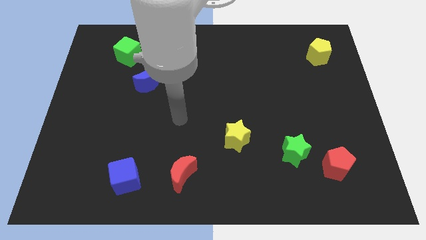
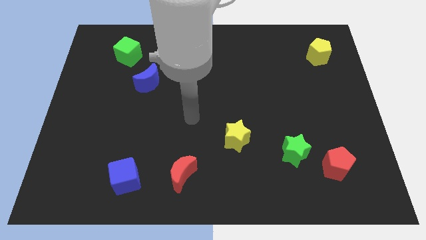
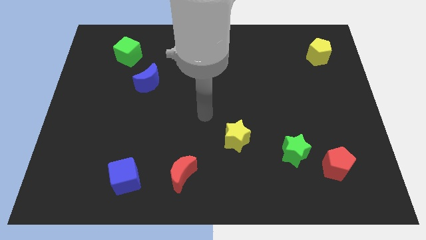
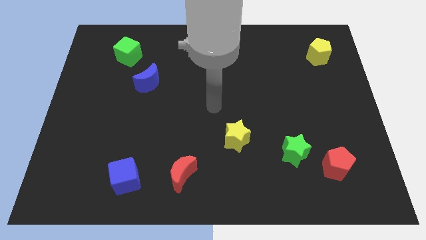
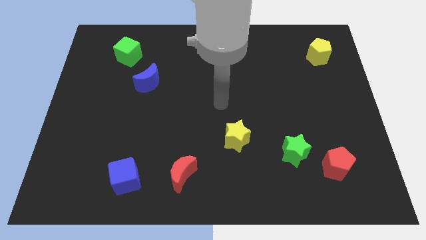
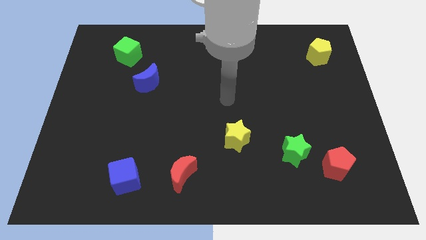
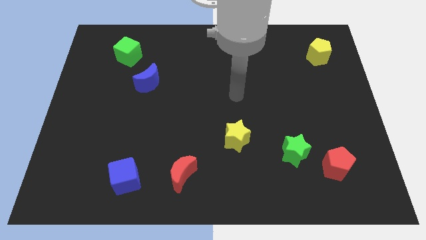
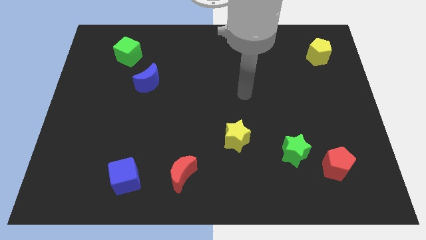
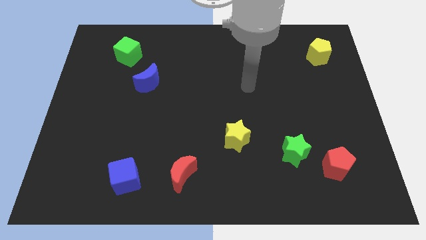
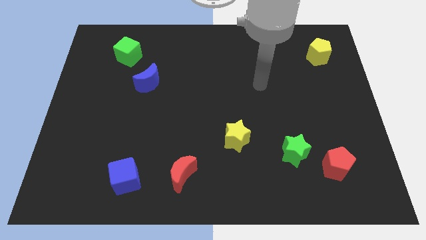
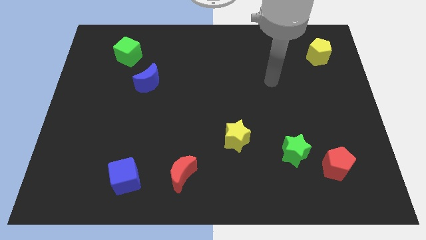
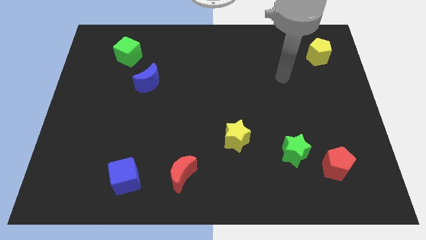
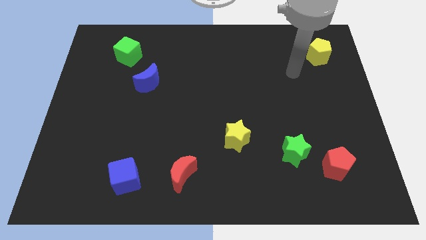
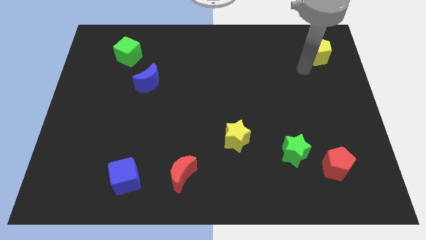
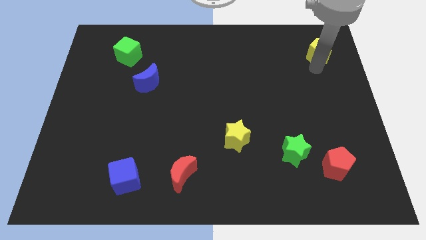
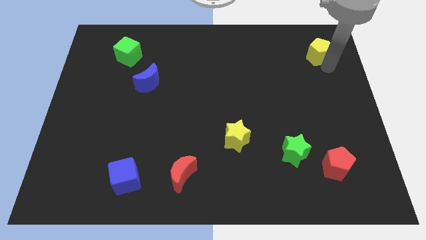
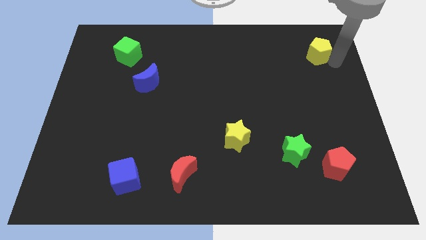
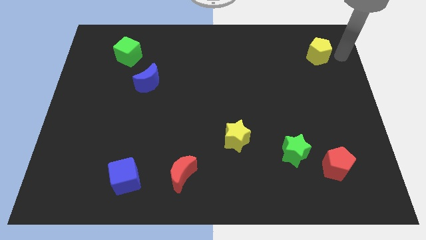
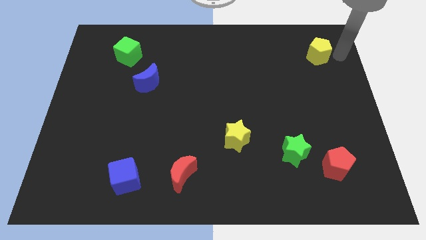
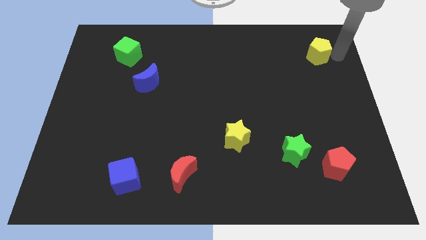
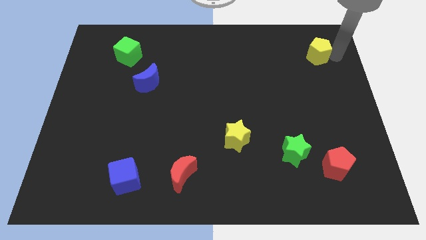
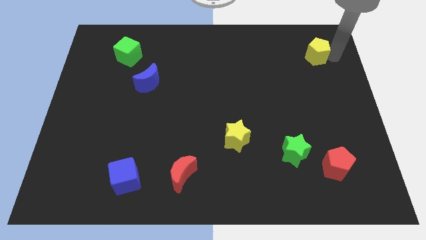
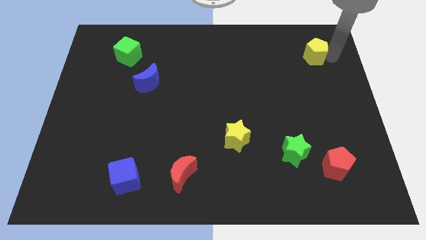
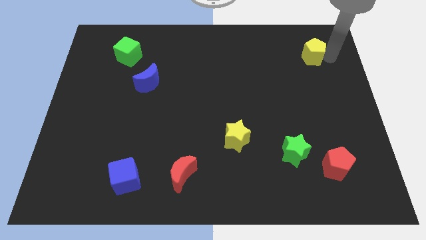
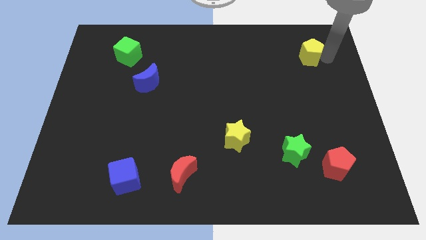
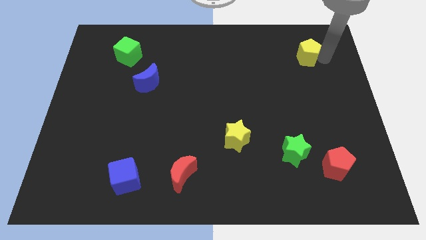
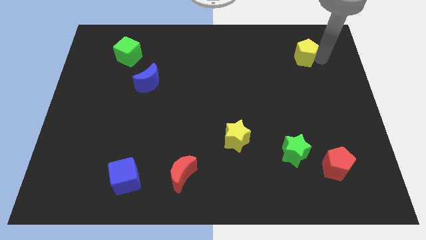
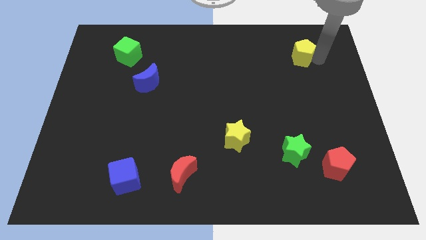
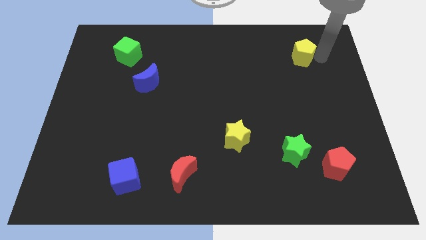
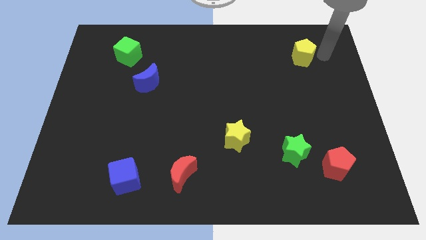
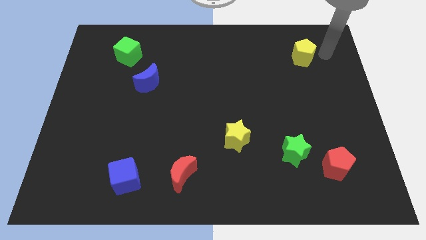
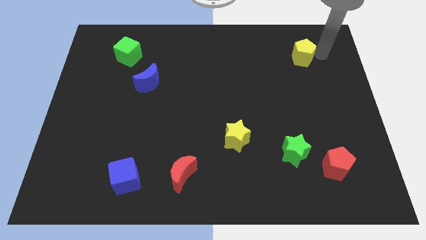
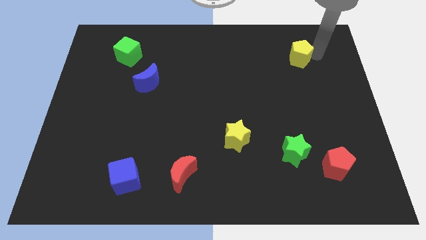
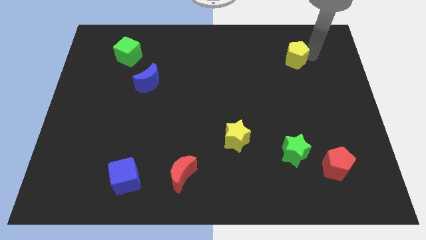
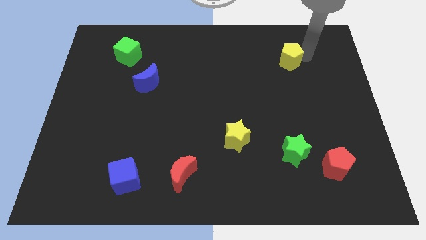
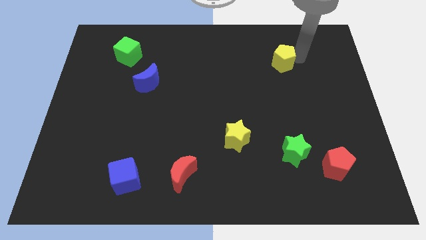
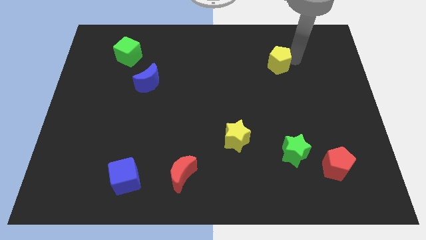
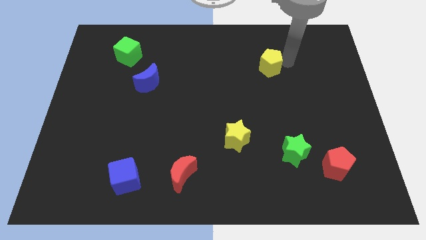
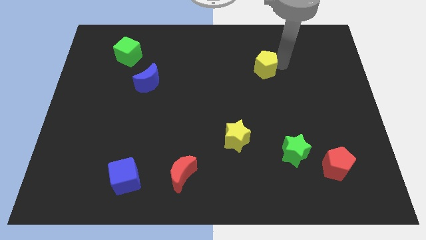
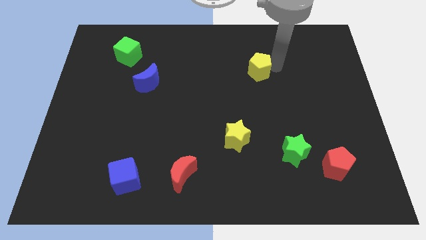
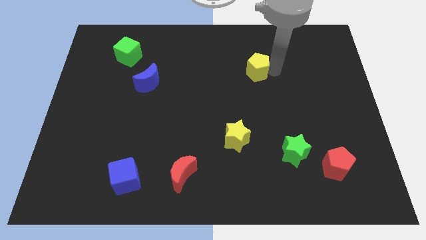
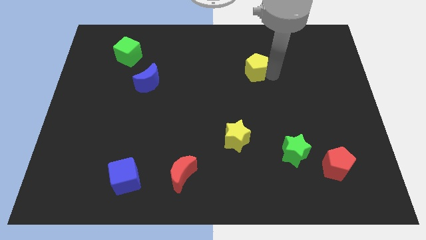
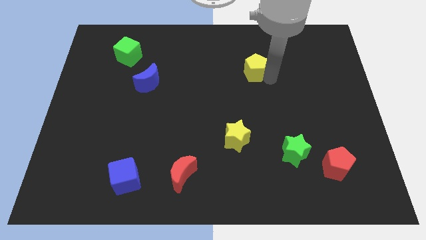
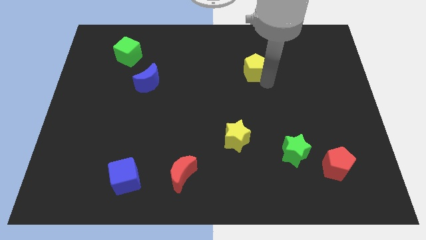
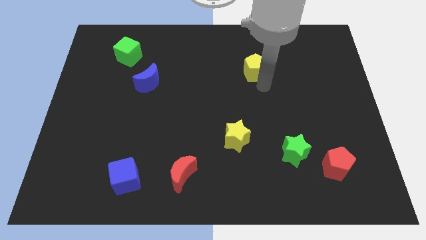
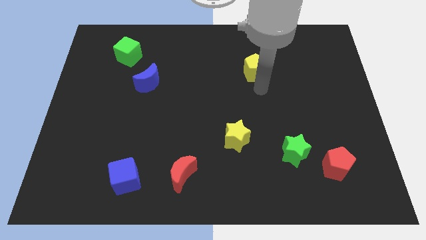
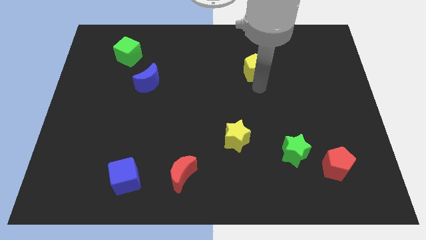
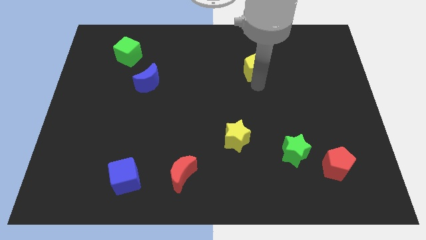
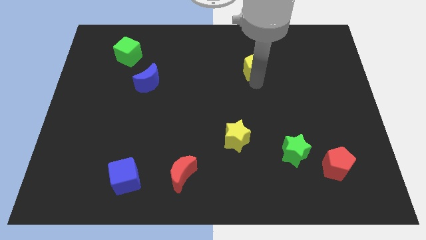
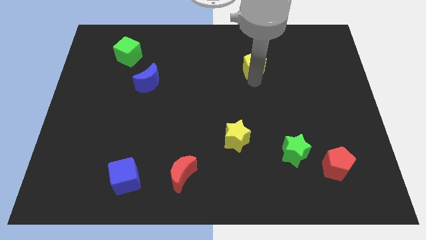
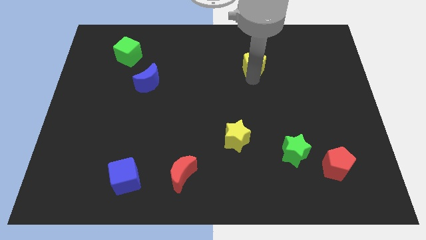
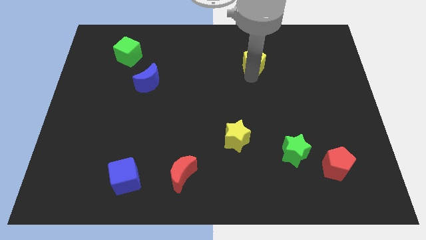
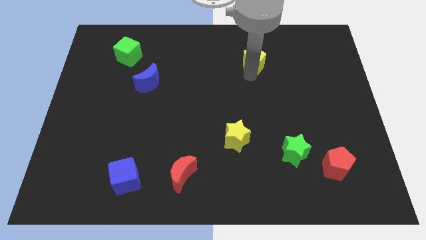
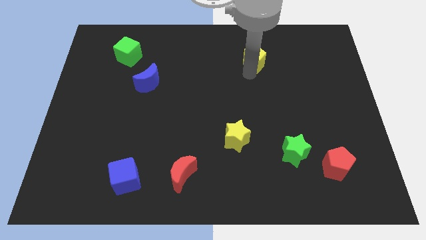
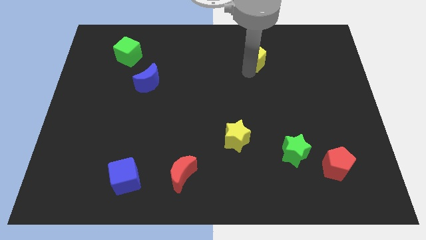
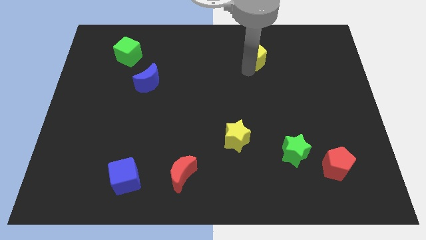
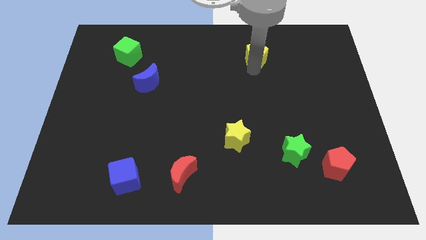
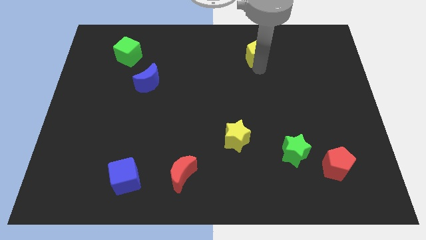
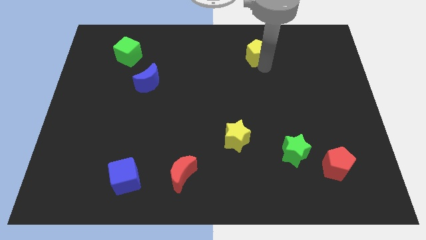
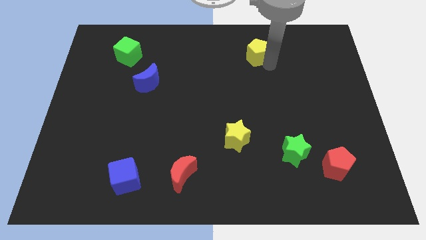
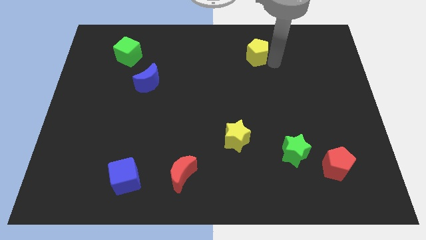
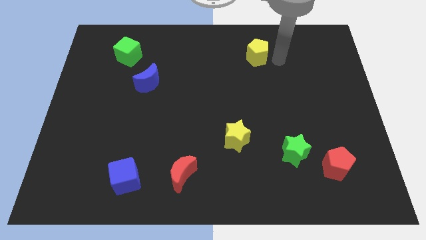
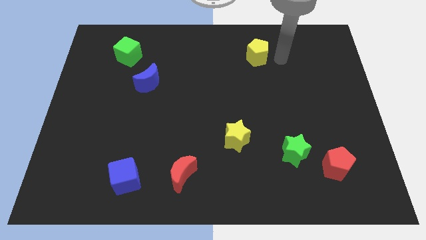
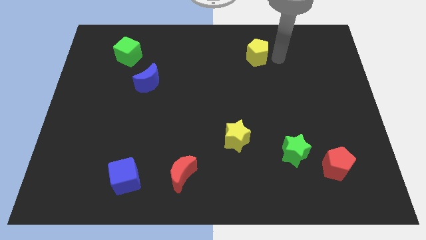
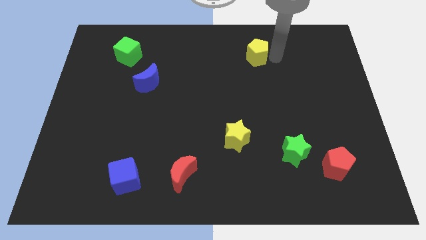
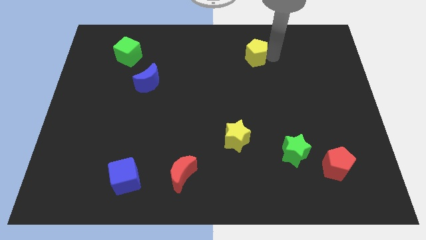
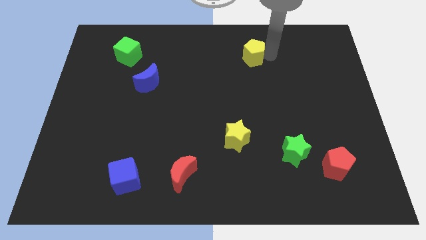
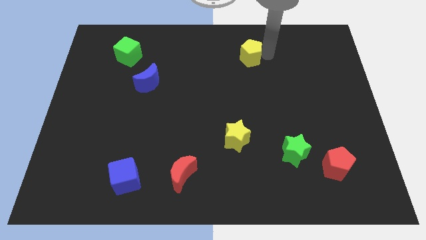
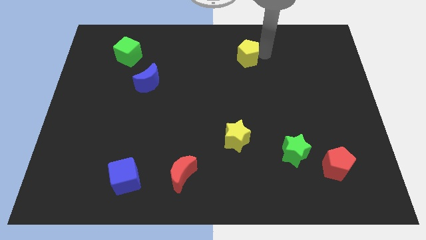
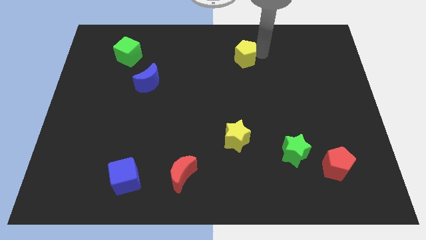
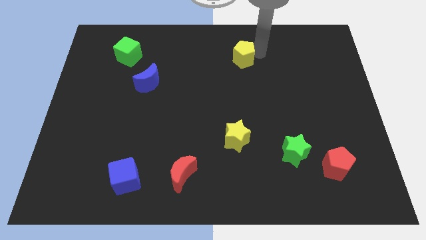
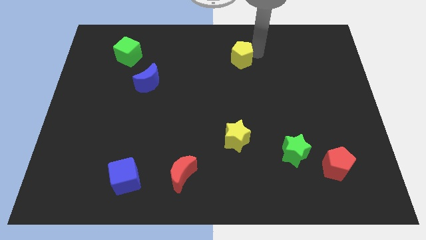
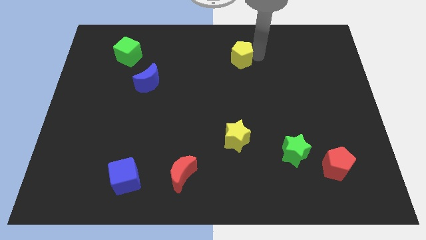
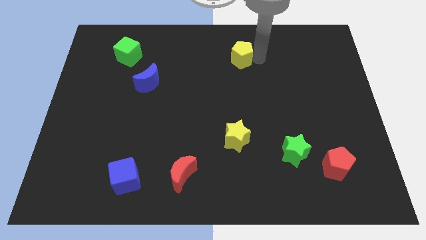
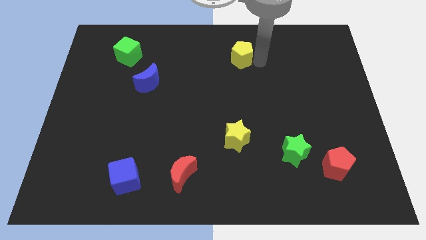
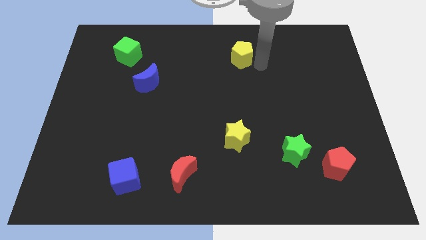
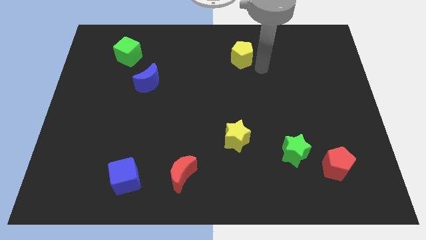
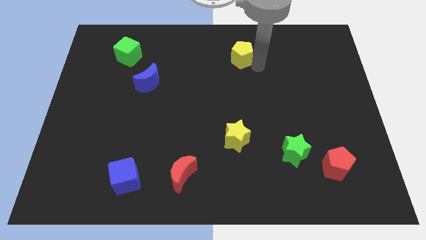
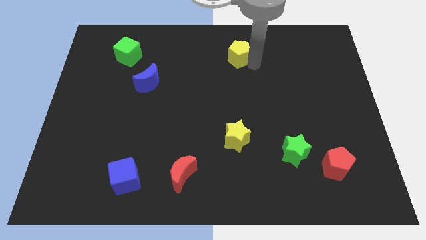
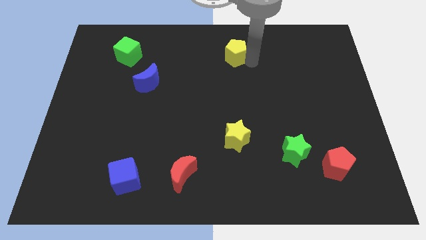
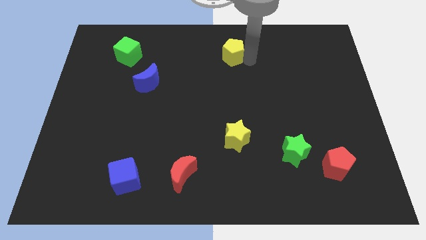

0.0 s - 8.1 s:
put the yellow pentagon to the towards your base
